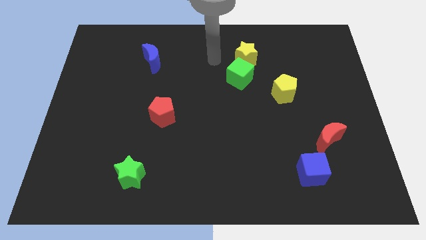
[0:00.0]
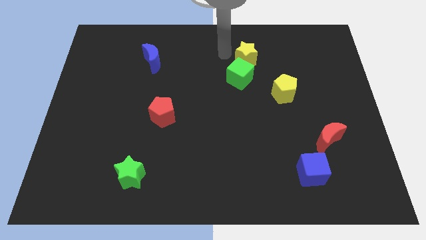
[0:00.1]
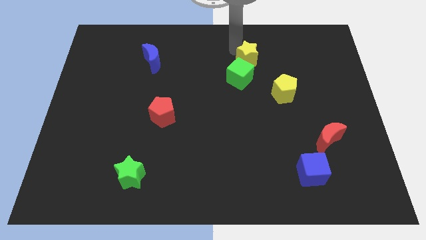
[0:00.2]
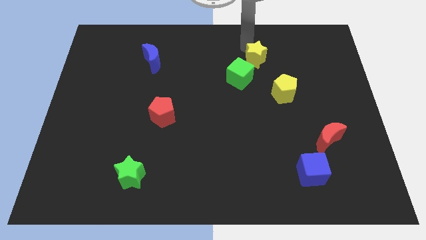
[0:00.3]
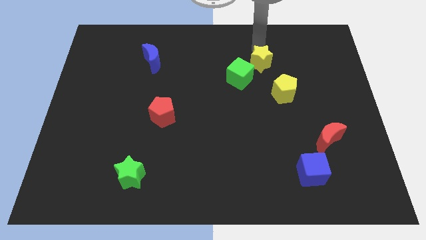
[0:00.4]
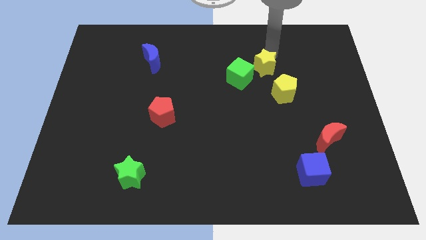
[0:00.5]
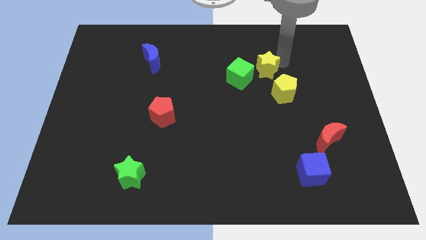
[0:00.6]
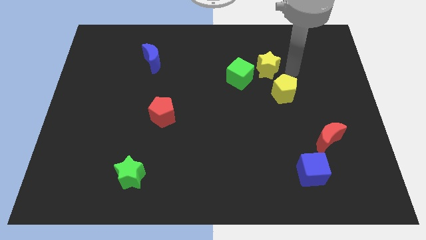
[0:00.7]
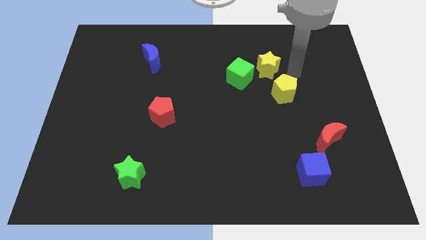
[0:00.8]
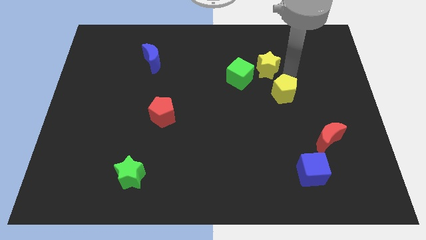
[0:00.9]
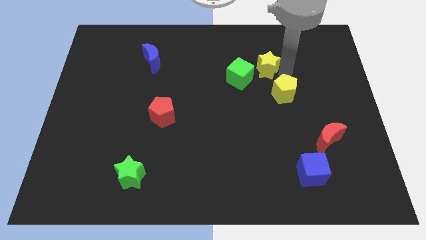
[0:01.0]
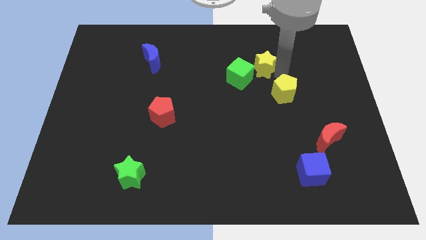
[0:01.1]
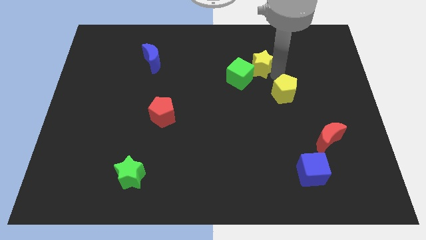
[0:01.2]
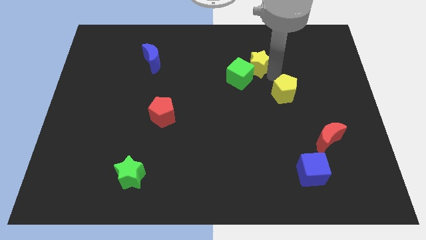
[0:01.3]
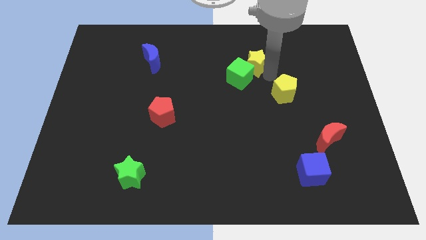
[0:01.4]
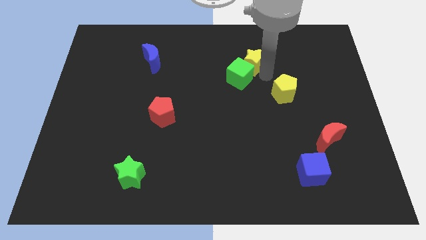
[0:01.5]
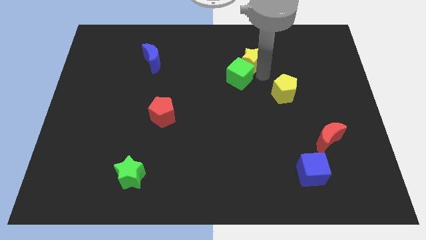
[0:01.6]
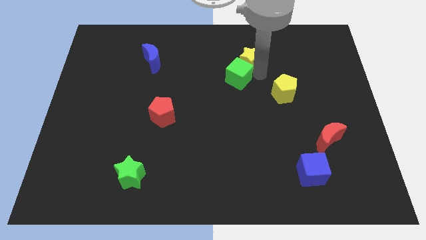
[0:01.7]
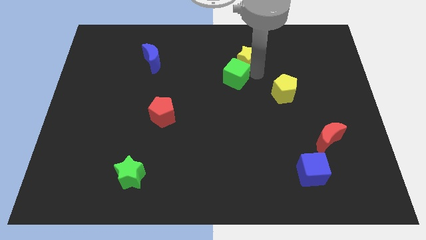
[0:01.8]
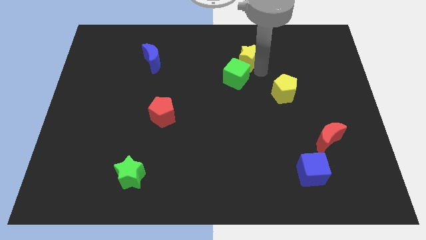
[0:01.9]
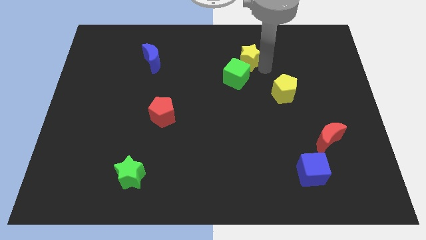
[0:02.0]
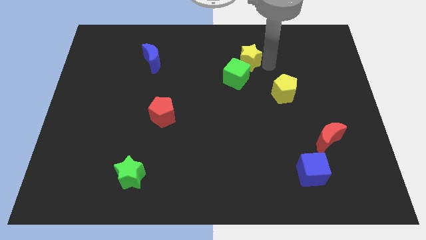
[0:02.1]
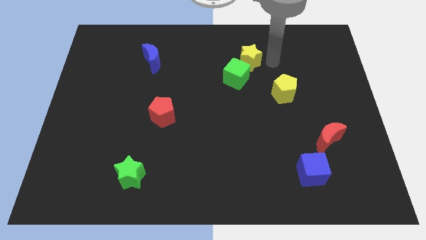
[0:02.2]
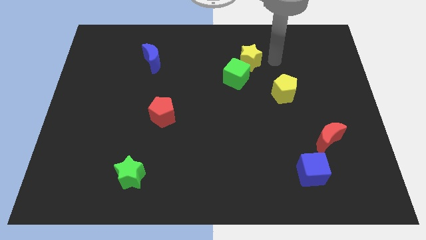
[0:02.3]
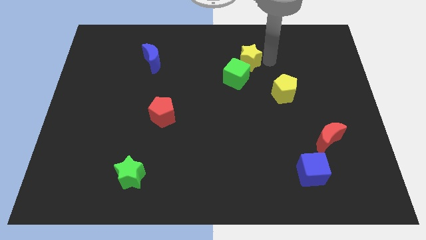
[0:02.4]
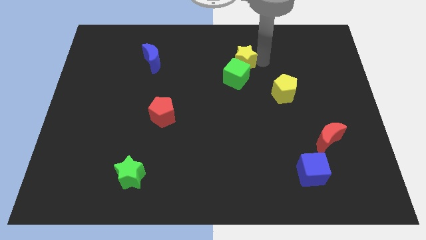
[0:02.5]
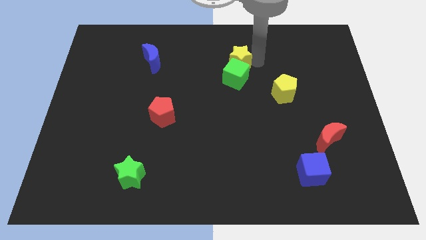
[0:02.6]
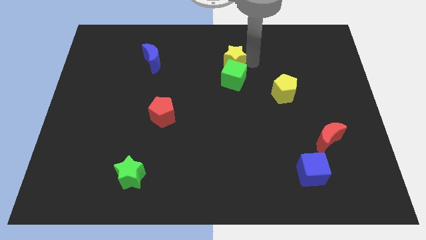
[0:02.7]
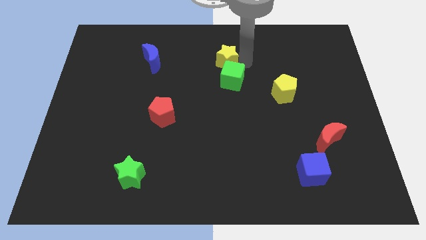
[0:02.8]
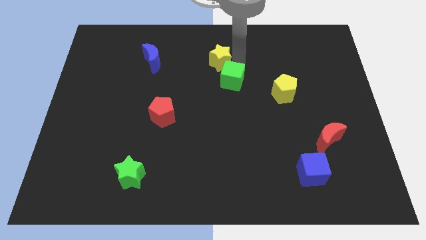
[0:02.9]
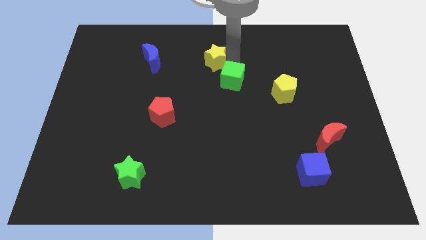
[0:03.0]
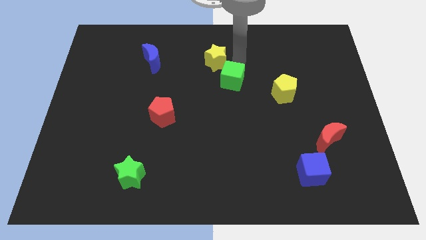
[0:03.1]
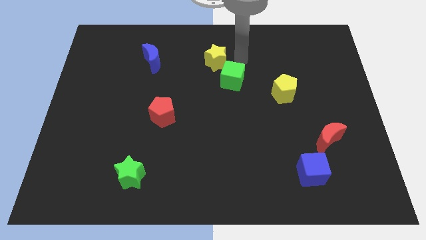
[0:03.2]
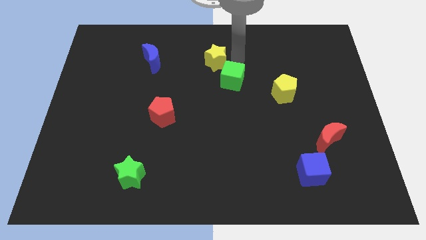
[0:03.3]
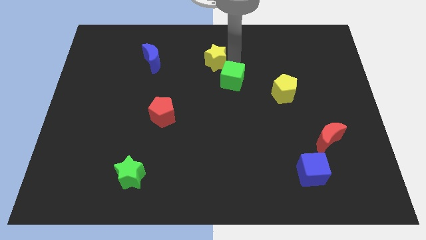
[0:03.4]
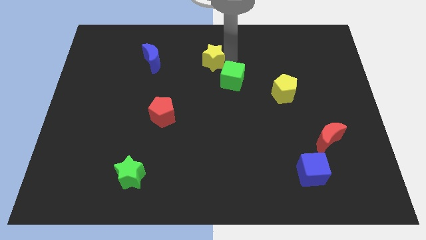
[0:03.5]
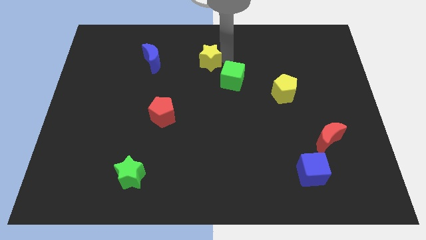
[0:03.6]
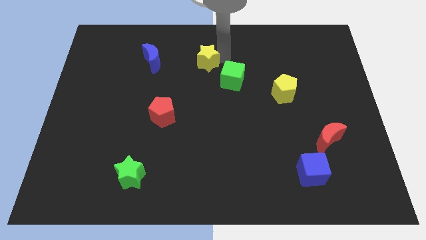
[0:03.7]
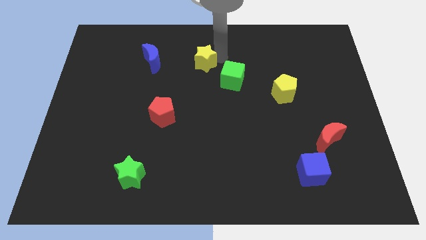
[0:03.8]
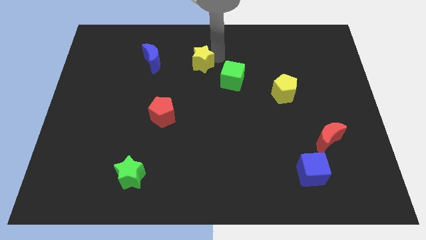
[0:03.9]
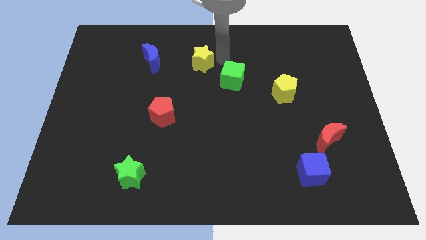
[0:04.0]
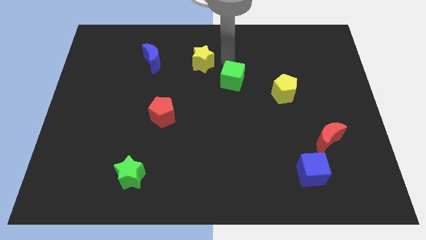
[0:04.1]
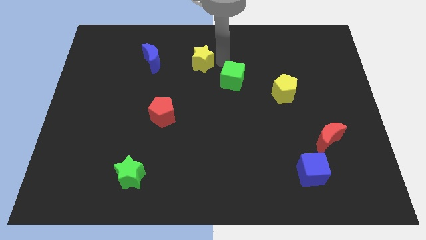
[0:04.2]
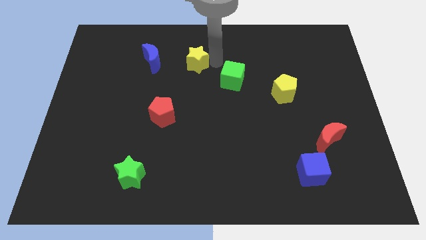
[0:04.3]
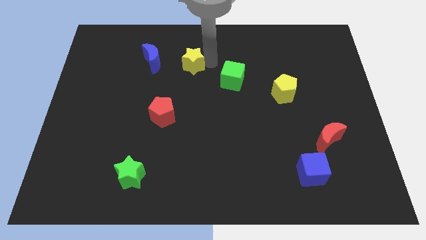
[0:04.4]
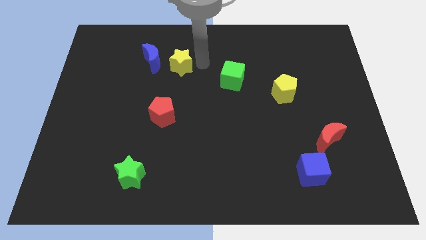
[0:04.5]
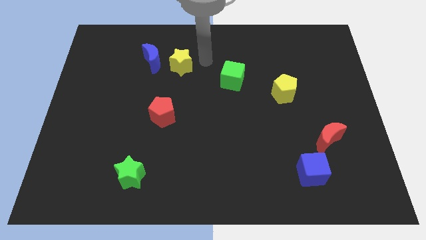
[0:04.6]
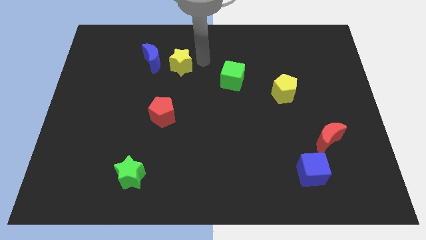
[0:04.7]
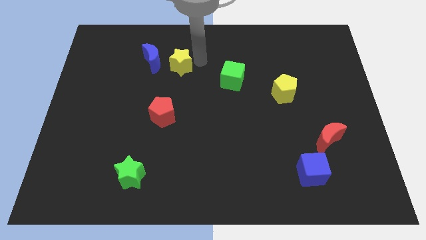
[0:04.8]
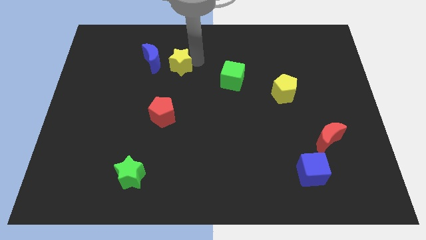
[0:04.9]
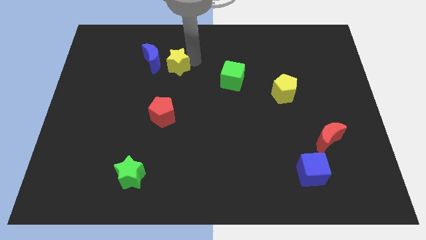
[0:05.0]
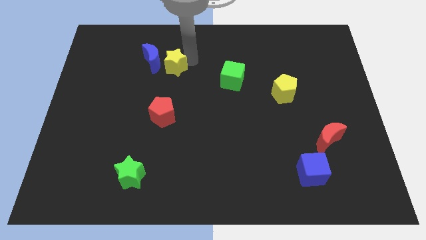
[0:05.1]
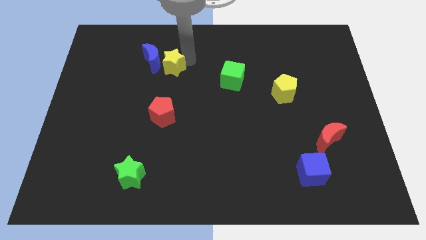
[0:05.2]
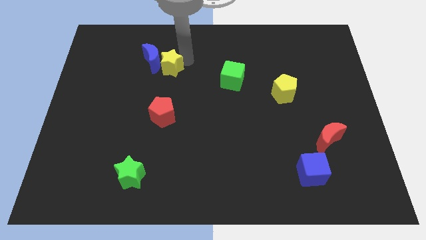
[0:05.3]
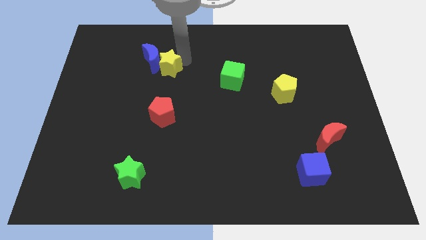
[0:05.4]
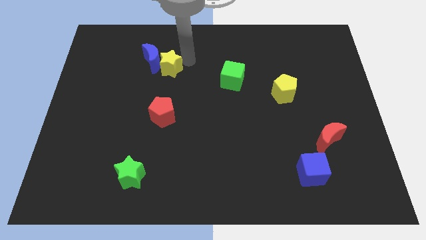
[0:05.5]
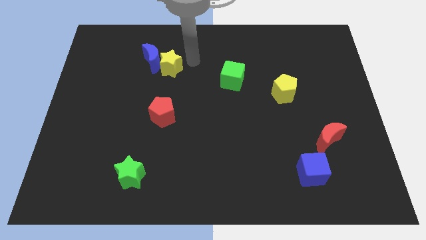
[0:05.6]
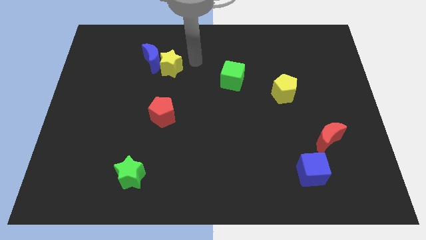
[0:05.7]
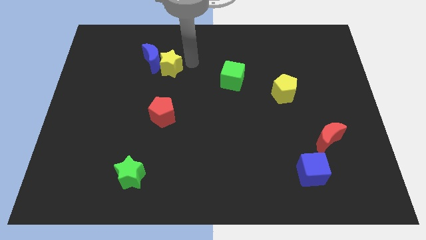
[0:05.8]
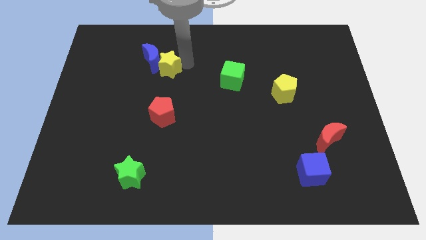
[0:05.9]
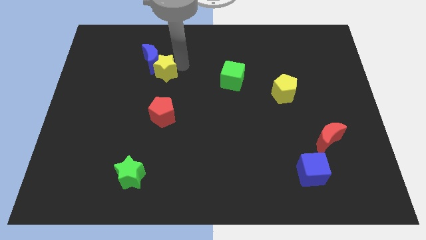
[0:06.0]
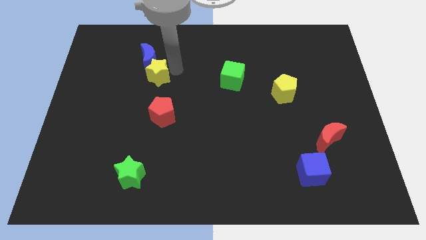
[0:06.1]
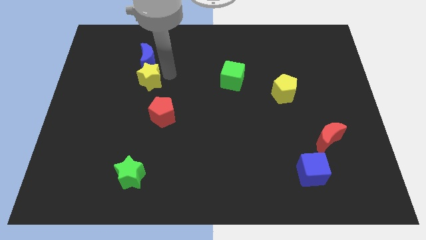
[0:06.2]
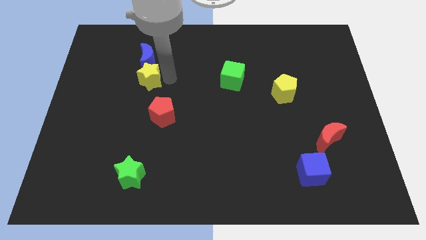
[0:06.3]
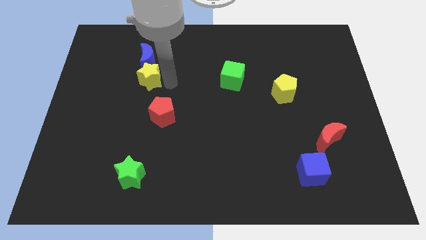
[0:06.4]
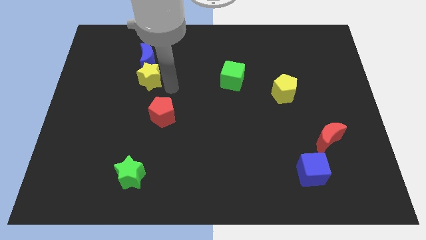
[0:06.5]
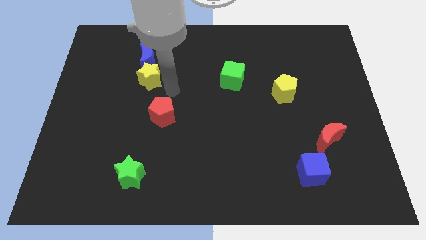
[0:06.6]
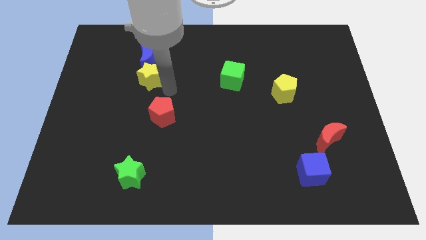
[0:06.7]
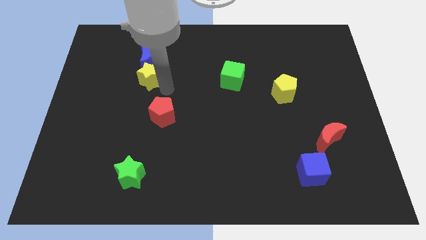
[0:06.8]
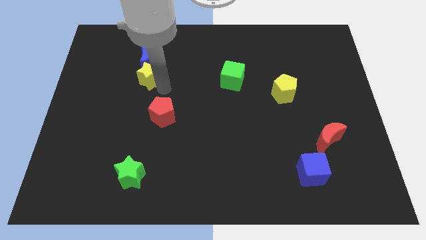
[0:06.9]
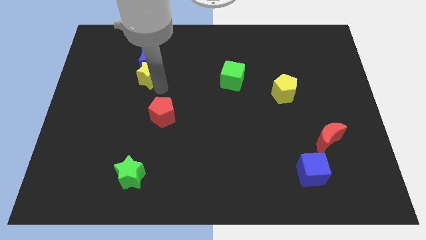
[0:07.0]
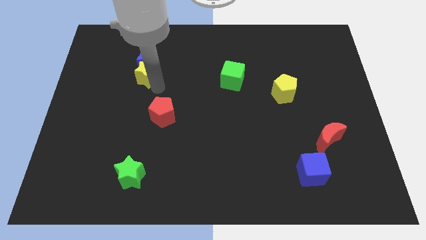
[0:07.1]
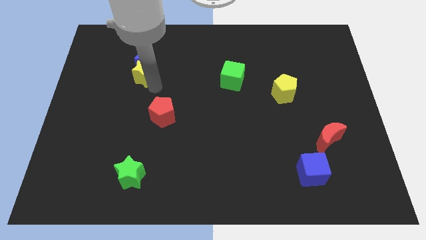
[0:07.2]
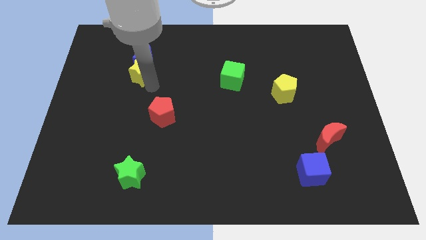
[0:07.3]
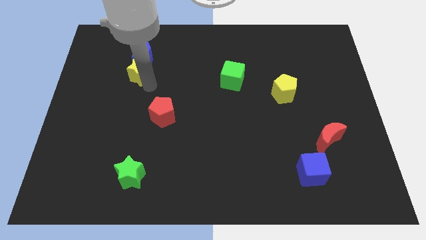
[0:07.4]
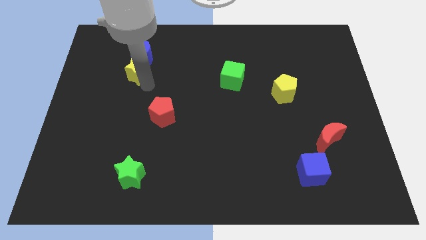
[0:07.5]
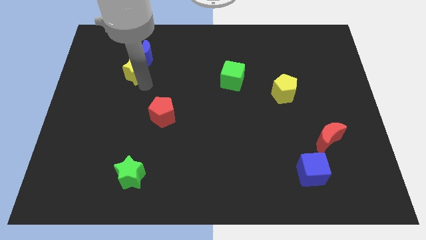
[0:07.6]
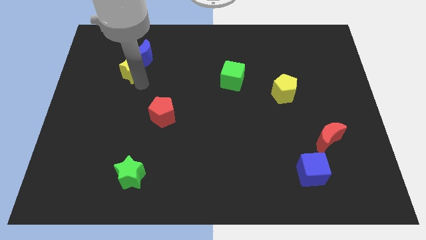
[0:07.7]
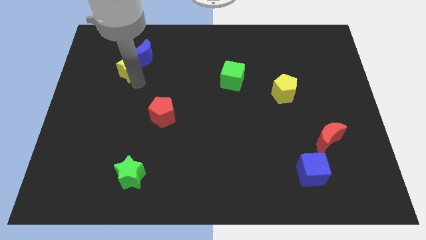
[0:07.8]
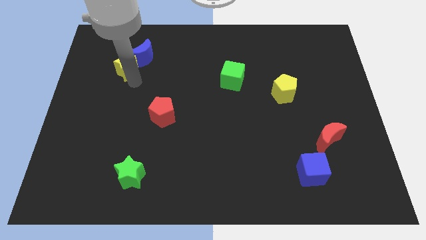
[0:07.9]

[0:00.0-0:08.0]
slide the yellow star just left of the blue moon
